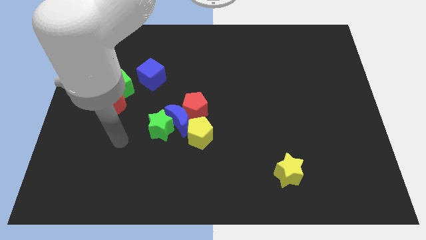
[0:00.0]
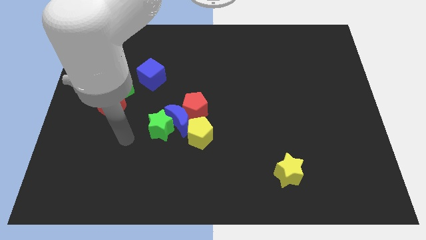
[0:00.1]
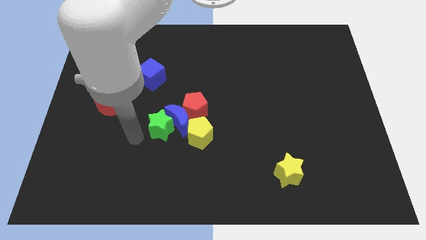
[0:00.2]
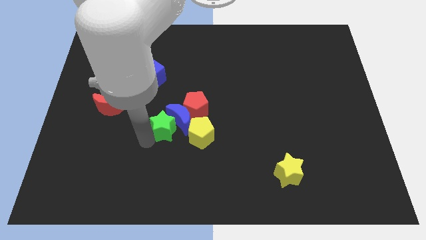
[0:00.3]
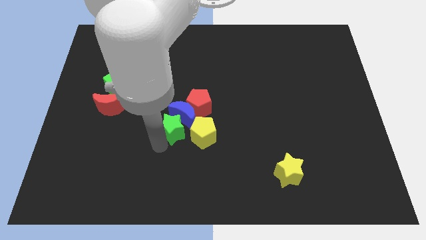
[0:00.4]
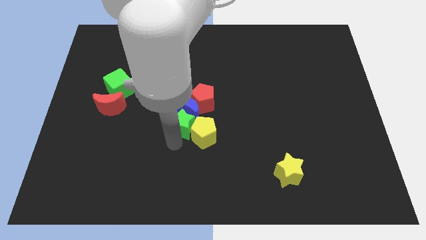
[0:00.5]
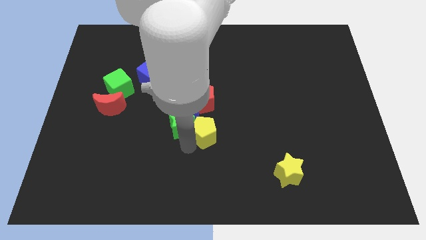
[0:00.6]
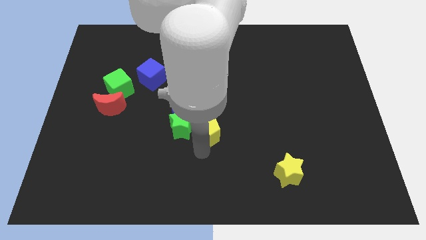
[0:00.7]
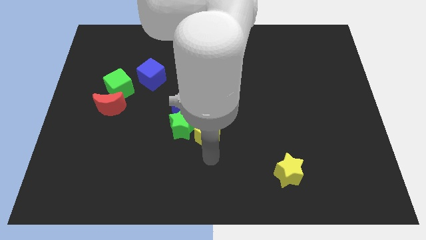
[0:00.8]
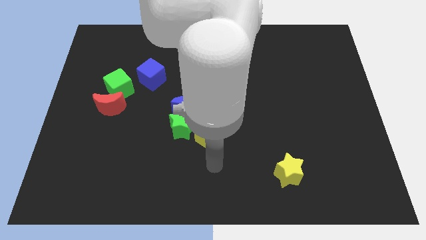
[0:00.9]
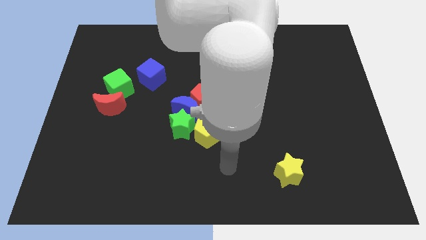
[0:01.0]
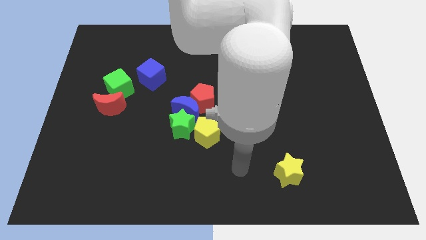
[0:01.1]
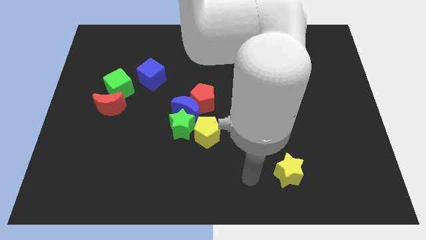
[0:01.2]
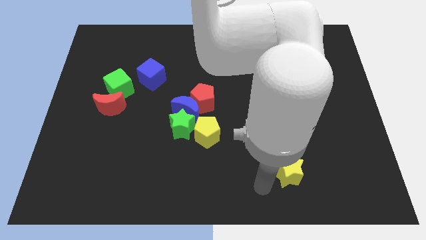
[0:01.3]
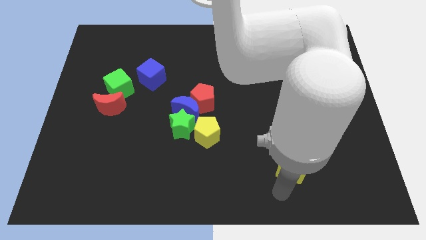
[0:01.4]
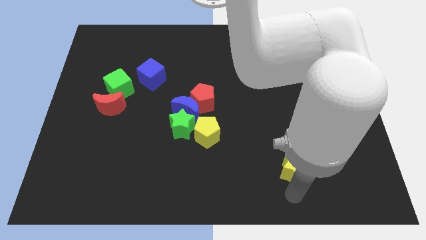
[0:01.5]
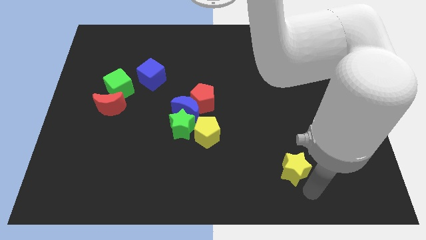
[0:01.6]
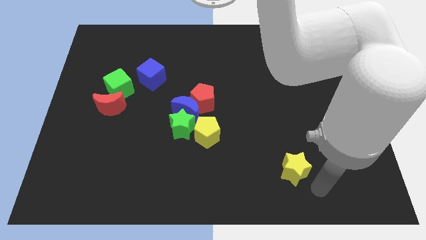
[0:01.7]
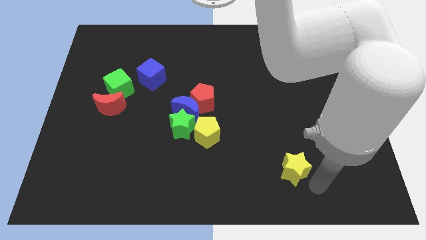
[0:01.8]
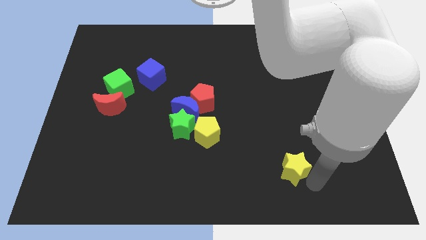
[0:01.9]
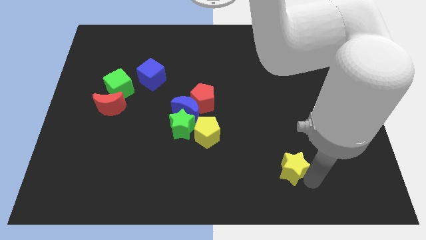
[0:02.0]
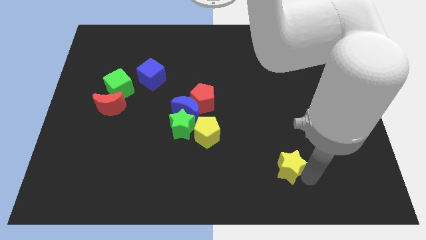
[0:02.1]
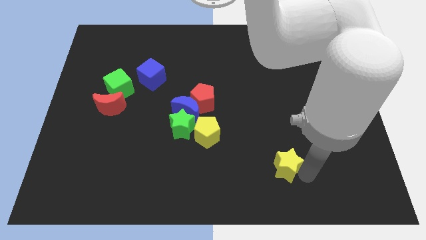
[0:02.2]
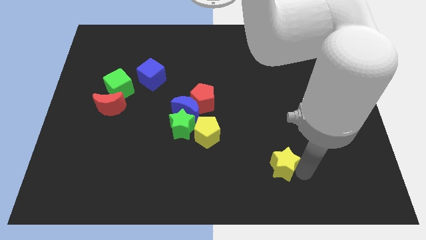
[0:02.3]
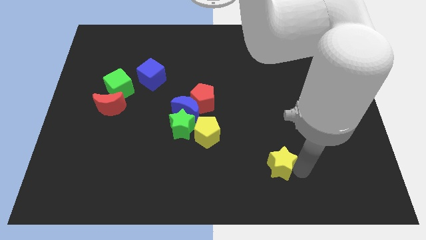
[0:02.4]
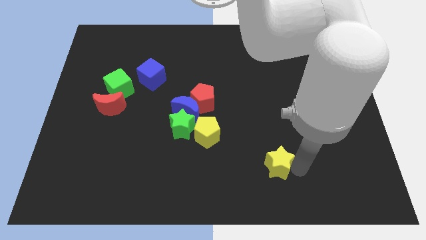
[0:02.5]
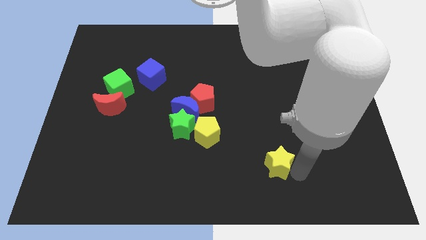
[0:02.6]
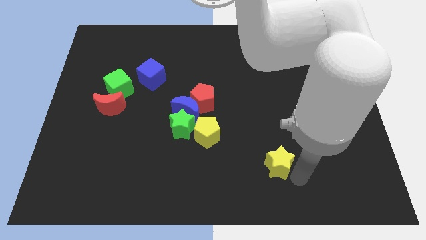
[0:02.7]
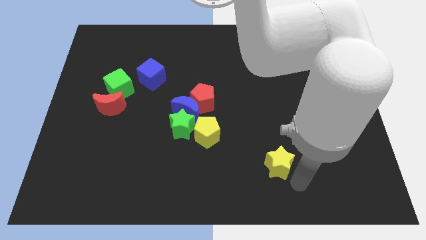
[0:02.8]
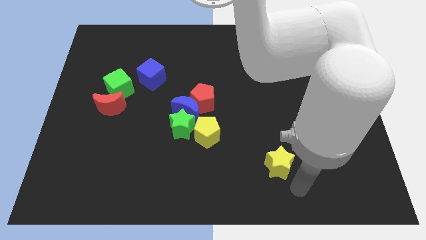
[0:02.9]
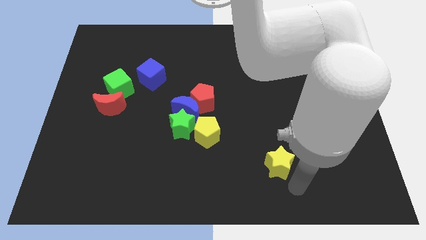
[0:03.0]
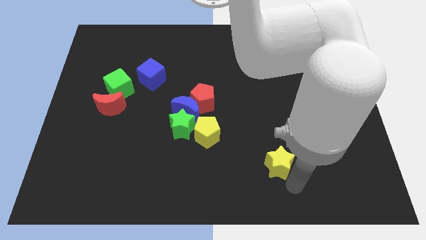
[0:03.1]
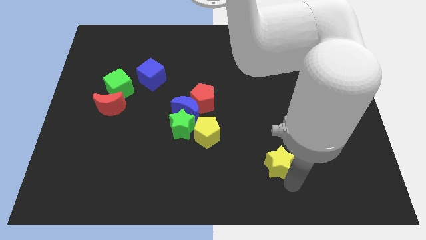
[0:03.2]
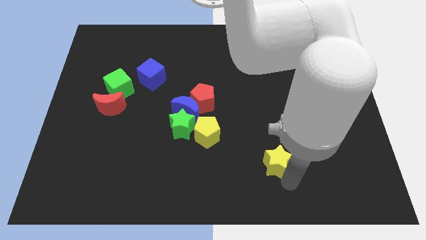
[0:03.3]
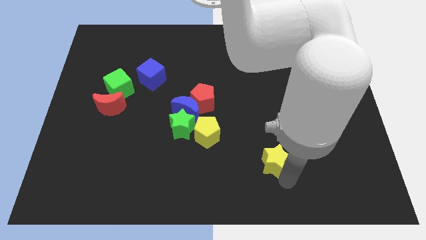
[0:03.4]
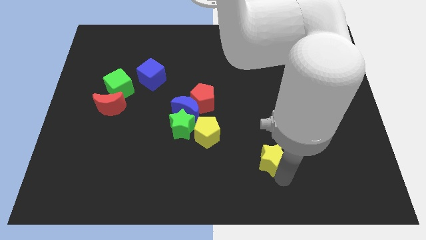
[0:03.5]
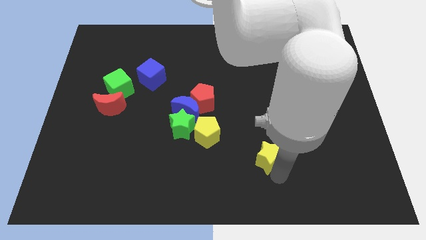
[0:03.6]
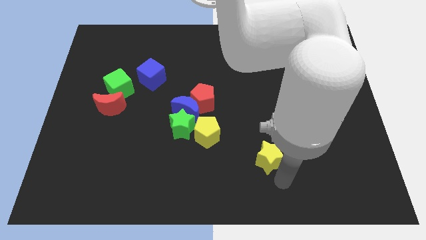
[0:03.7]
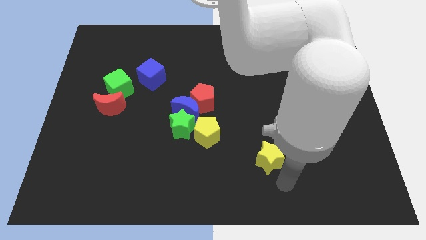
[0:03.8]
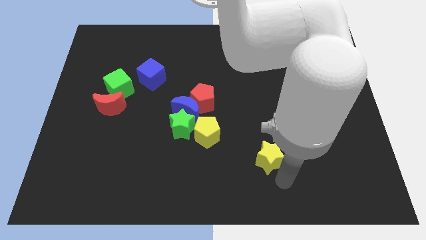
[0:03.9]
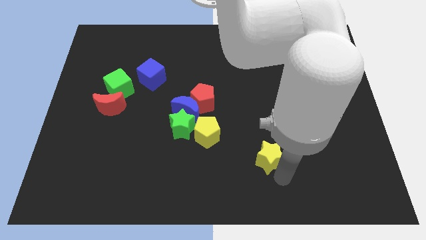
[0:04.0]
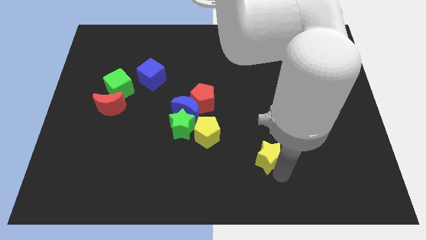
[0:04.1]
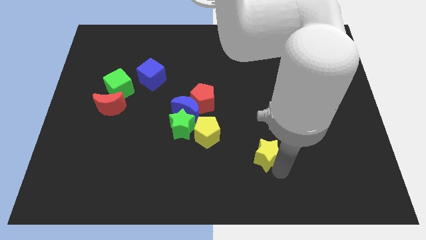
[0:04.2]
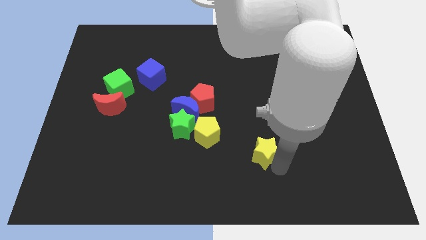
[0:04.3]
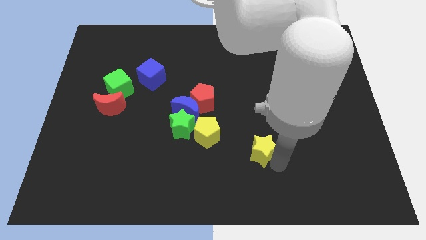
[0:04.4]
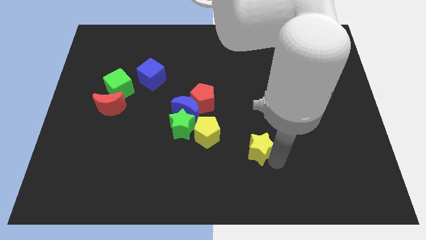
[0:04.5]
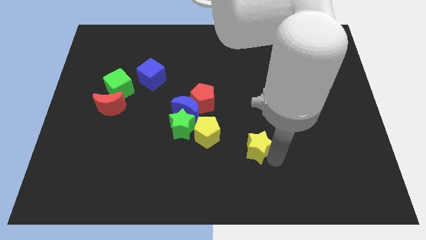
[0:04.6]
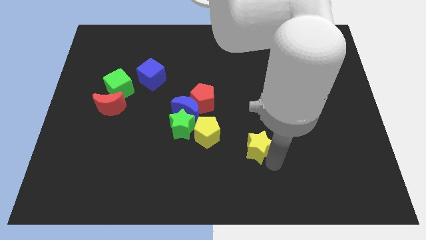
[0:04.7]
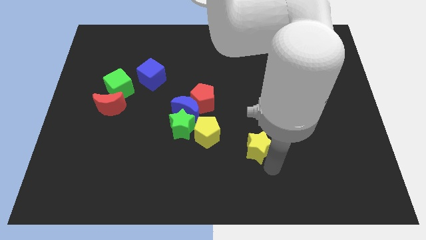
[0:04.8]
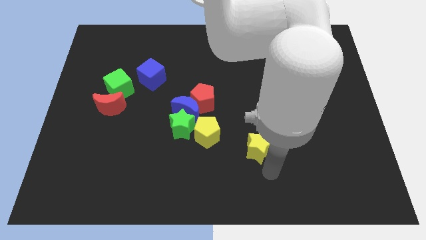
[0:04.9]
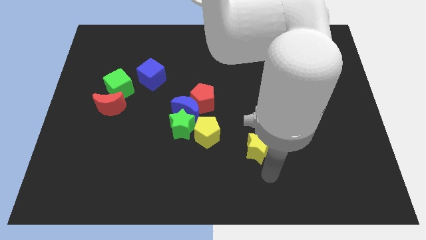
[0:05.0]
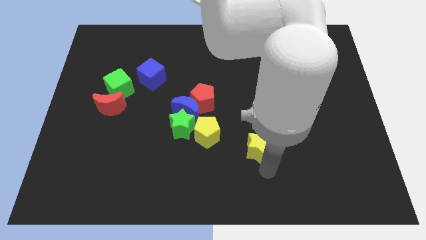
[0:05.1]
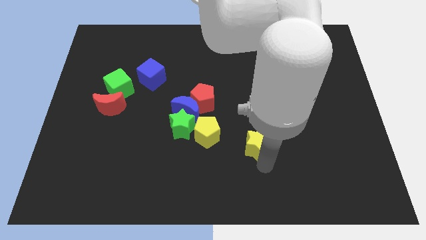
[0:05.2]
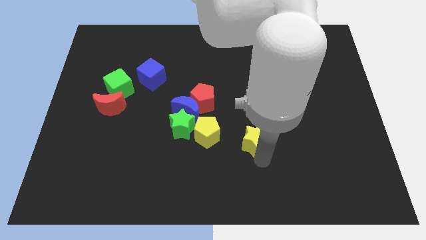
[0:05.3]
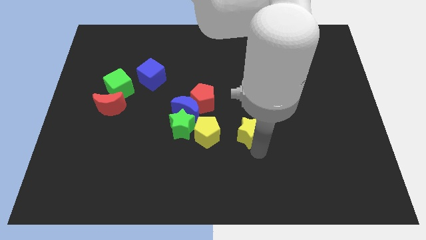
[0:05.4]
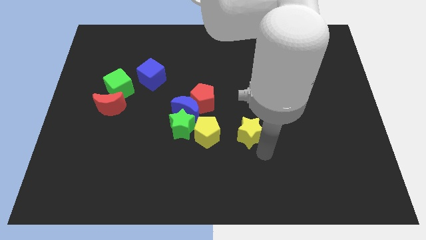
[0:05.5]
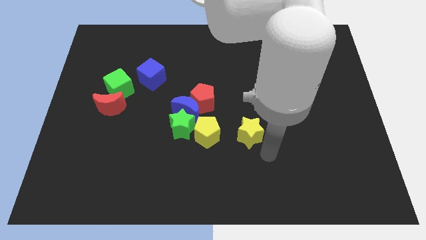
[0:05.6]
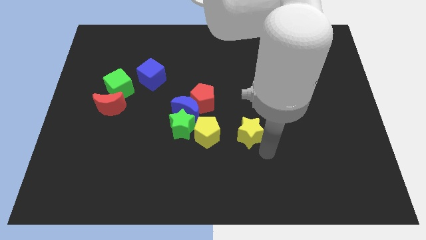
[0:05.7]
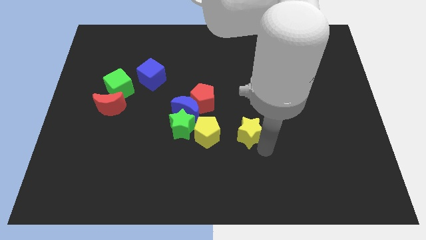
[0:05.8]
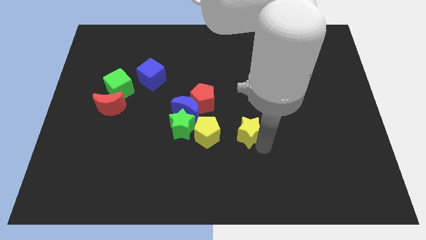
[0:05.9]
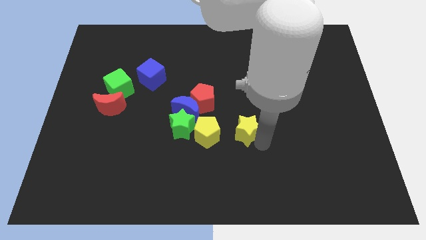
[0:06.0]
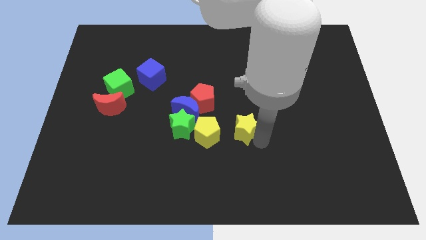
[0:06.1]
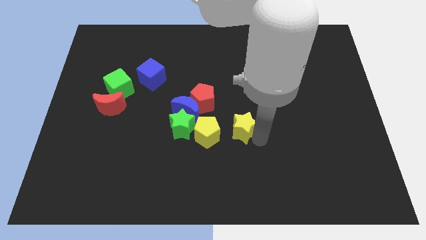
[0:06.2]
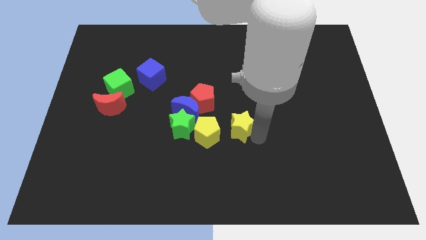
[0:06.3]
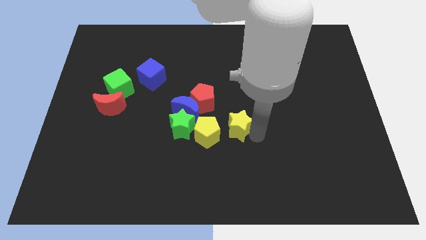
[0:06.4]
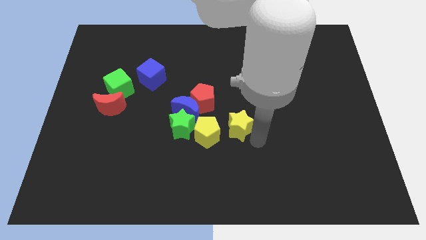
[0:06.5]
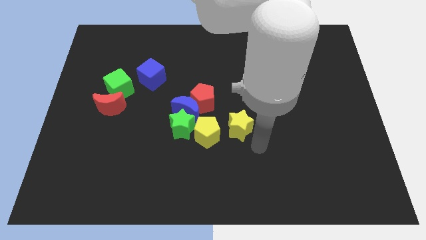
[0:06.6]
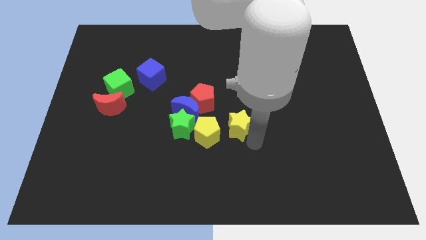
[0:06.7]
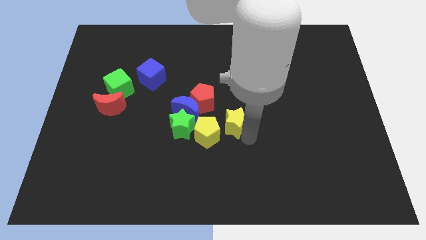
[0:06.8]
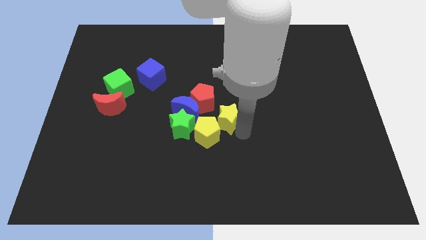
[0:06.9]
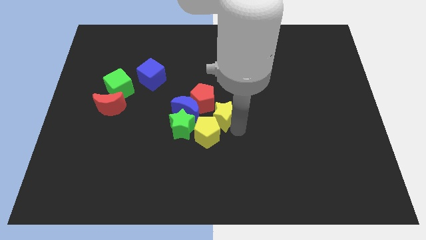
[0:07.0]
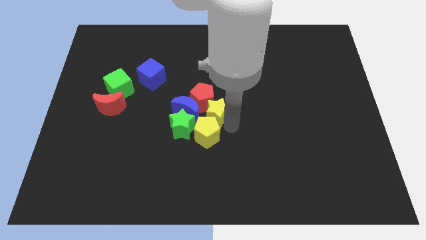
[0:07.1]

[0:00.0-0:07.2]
push the yellow star diagonally upwards and left

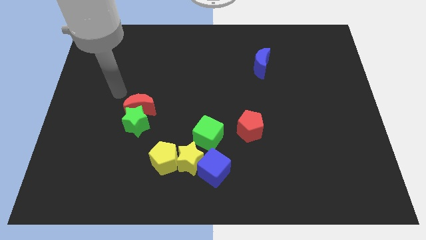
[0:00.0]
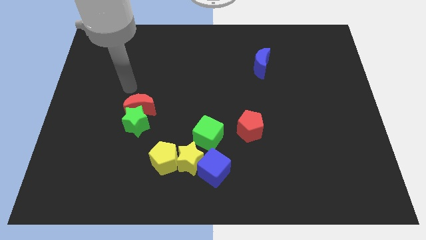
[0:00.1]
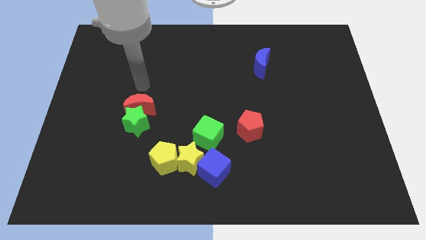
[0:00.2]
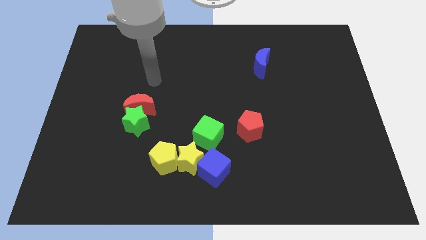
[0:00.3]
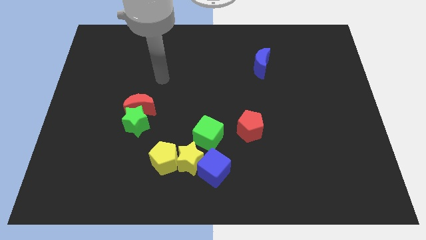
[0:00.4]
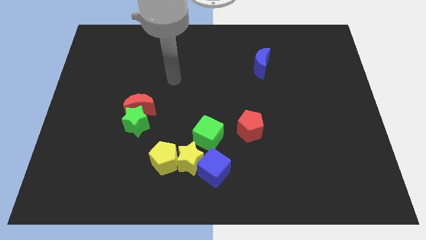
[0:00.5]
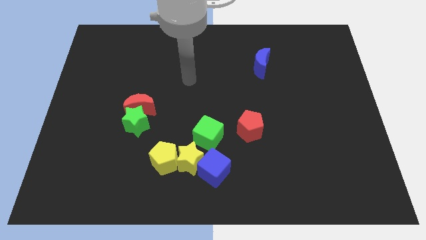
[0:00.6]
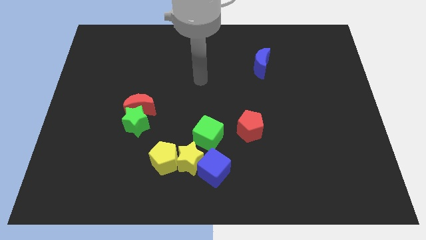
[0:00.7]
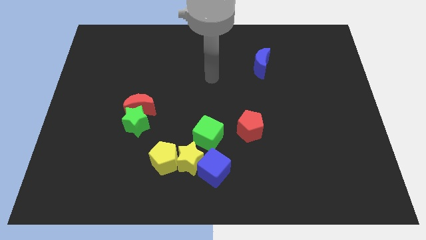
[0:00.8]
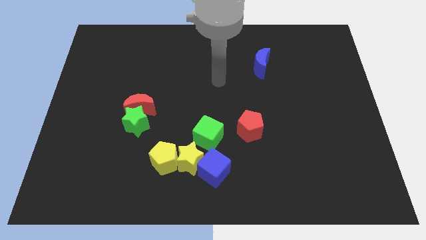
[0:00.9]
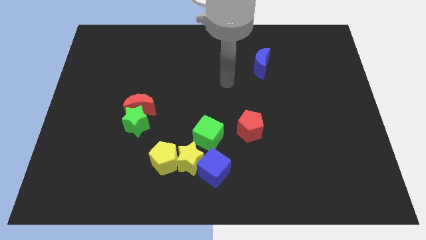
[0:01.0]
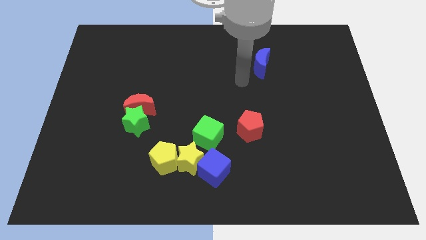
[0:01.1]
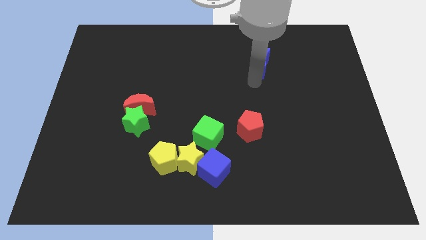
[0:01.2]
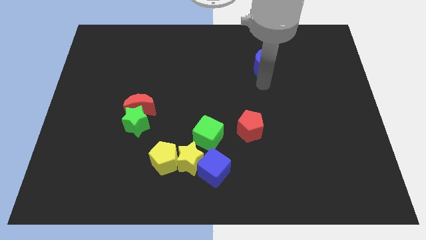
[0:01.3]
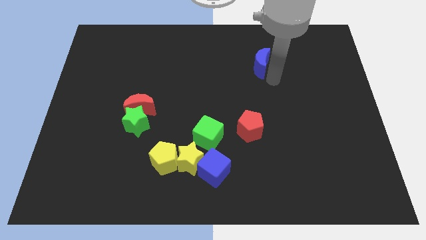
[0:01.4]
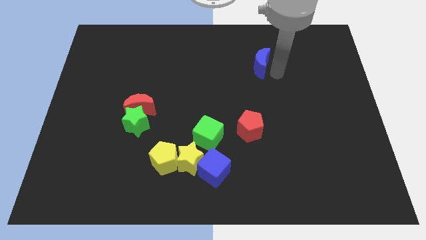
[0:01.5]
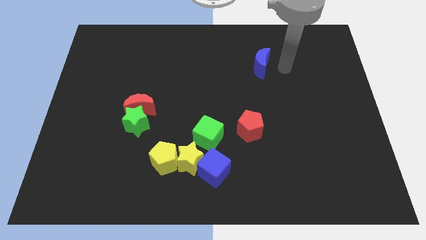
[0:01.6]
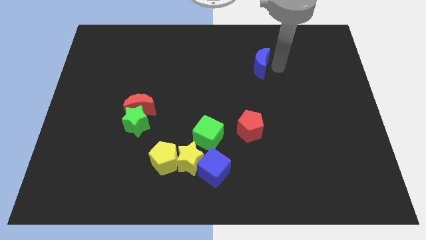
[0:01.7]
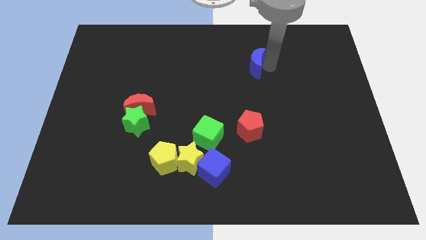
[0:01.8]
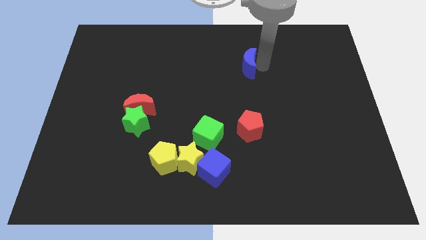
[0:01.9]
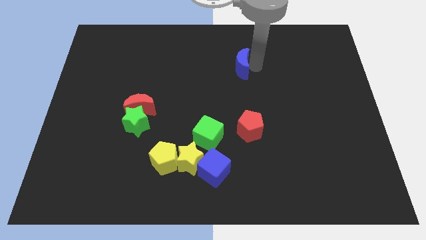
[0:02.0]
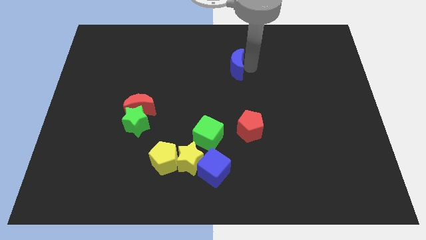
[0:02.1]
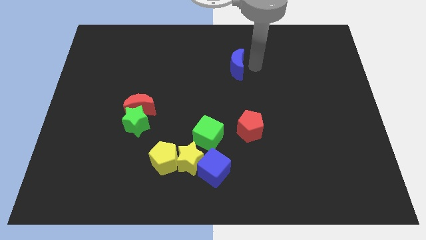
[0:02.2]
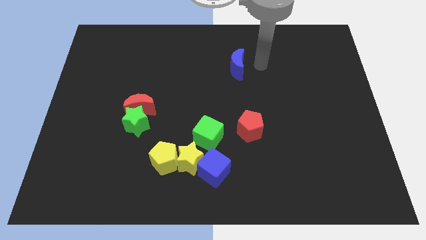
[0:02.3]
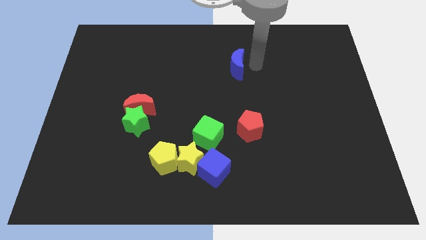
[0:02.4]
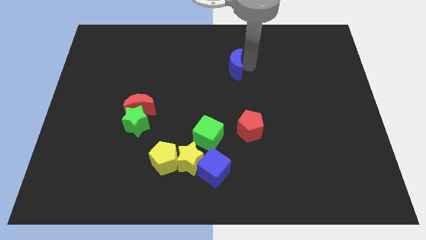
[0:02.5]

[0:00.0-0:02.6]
slightly push the blue moon left
